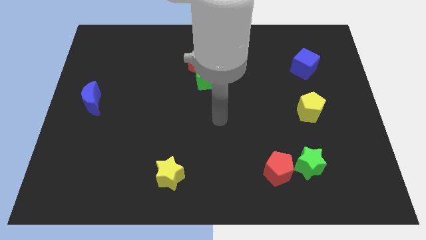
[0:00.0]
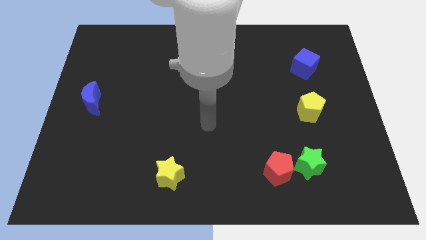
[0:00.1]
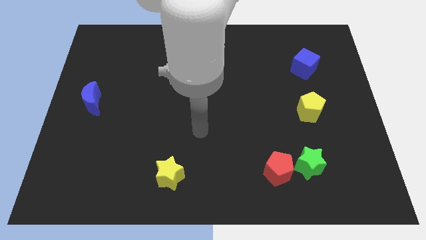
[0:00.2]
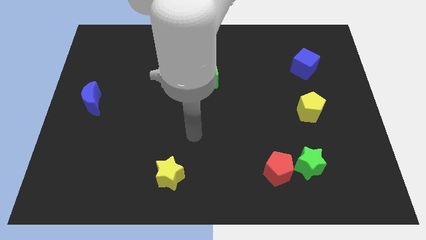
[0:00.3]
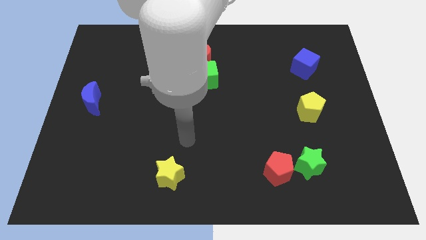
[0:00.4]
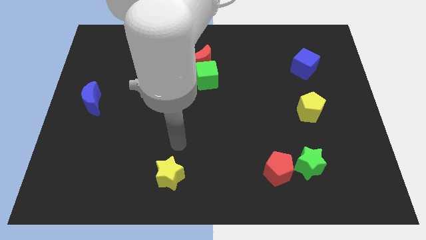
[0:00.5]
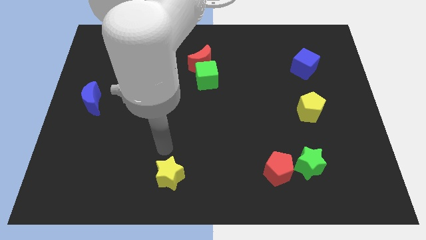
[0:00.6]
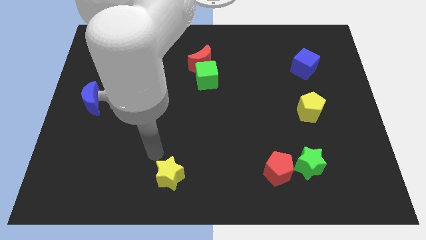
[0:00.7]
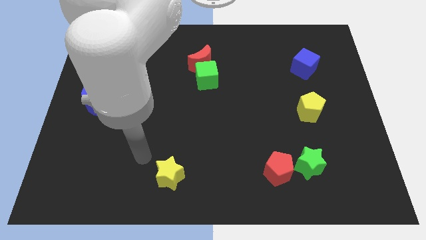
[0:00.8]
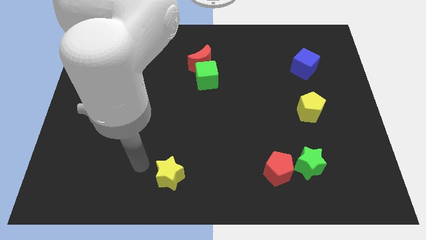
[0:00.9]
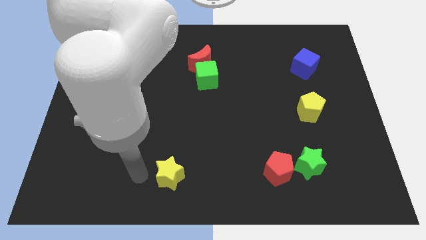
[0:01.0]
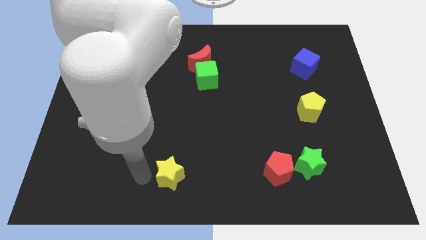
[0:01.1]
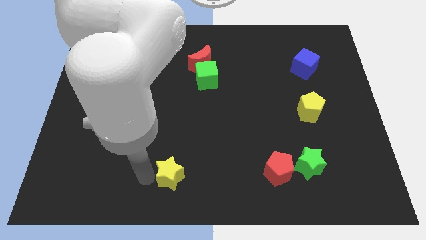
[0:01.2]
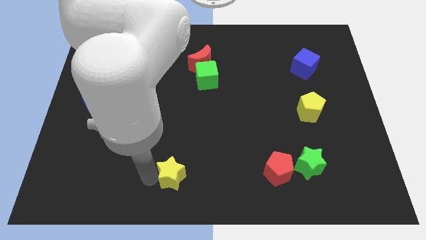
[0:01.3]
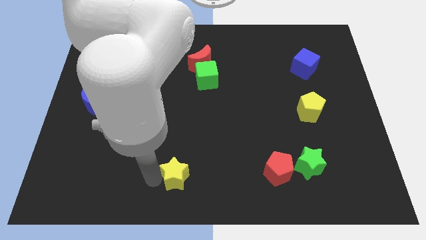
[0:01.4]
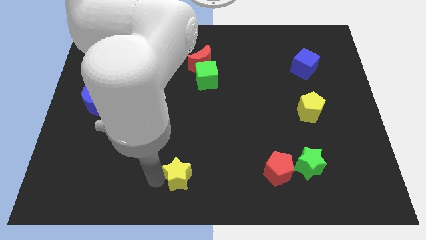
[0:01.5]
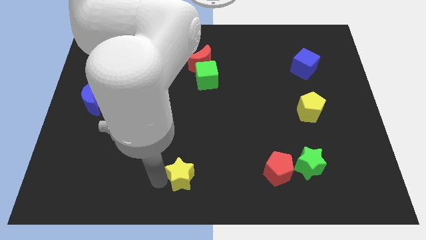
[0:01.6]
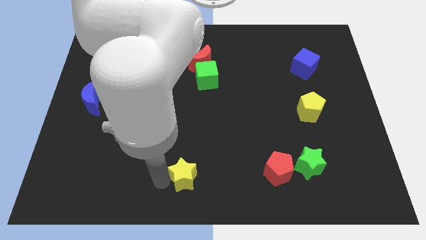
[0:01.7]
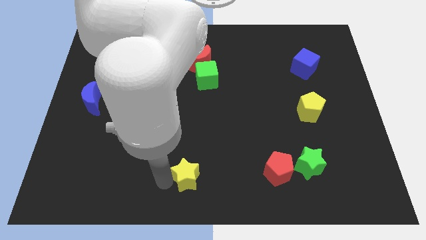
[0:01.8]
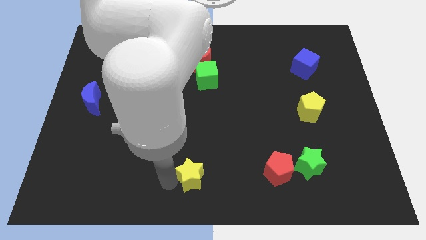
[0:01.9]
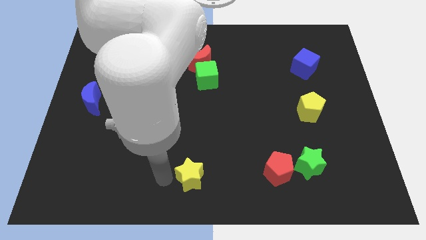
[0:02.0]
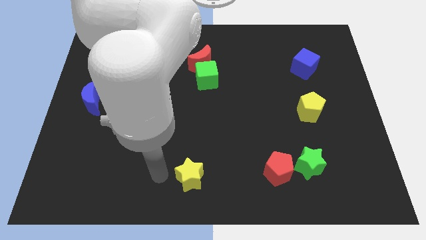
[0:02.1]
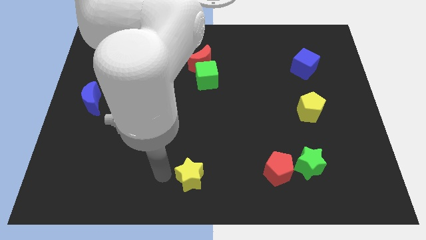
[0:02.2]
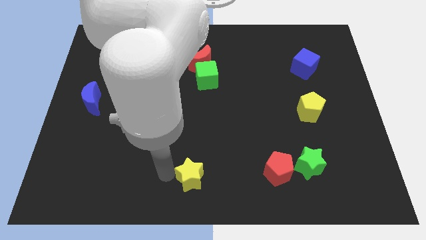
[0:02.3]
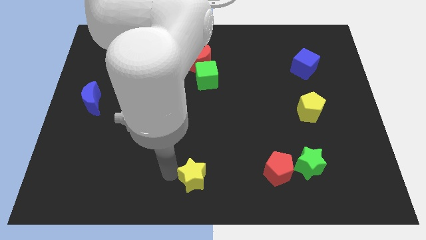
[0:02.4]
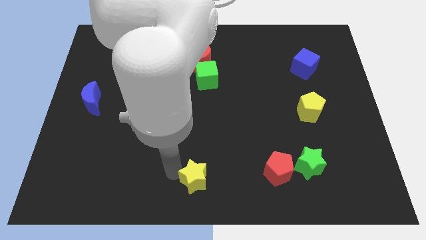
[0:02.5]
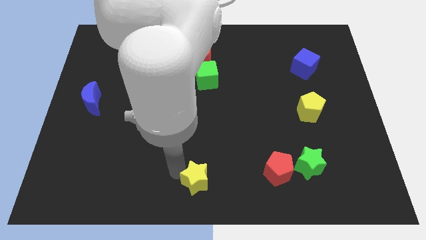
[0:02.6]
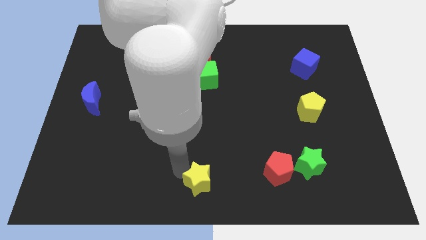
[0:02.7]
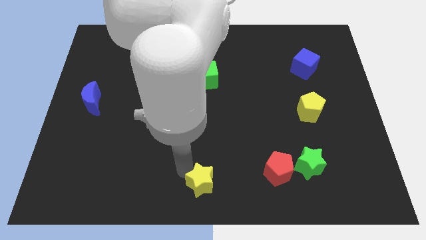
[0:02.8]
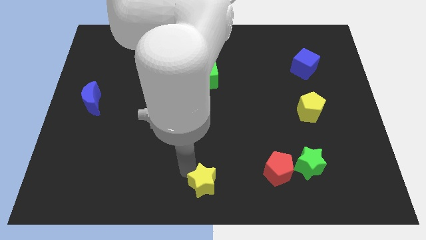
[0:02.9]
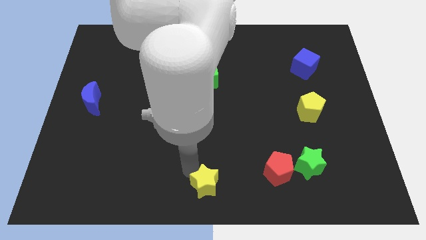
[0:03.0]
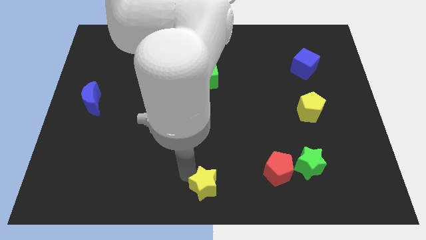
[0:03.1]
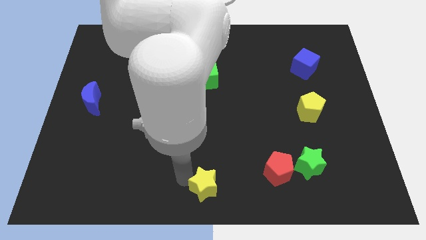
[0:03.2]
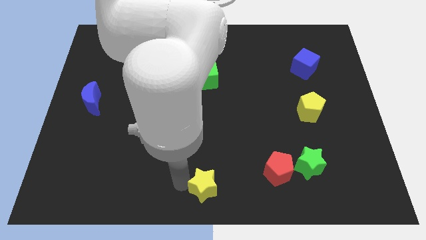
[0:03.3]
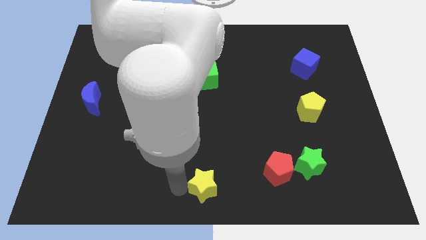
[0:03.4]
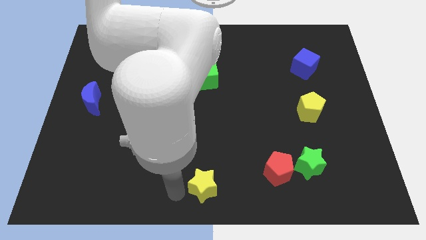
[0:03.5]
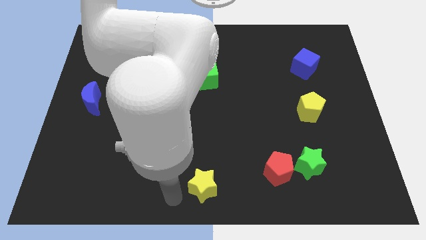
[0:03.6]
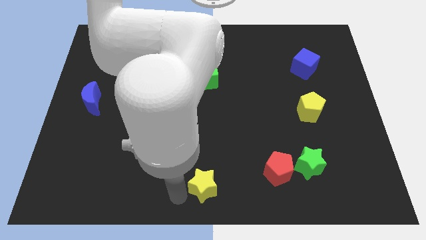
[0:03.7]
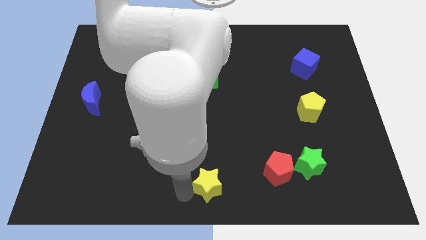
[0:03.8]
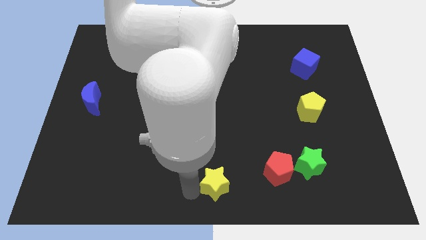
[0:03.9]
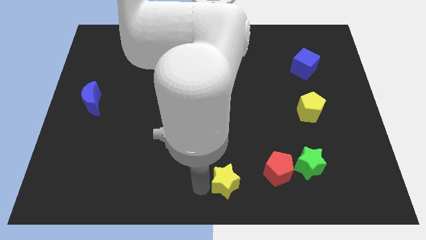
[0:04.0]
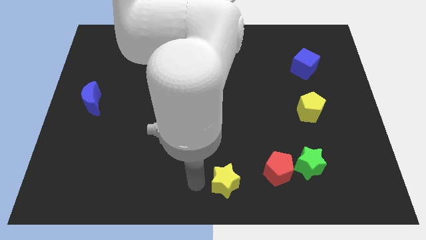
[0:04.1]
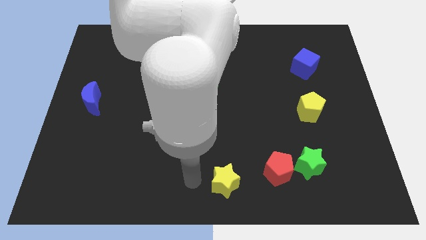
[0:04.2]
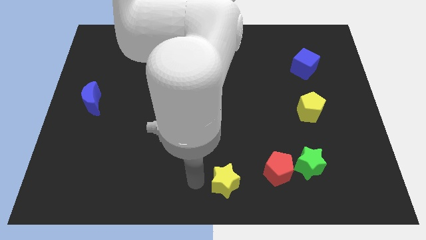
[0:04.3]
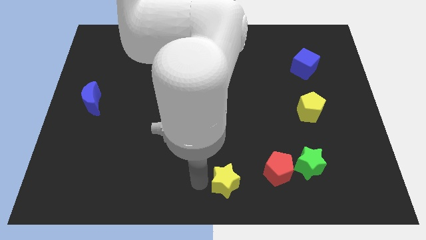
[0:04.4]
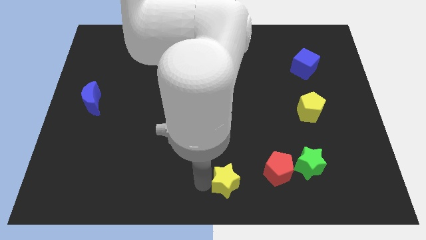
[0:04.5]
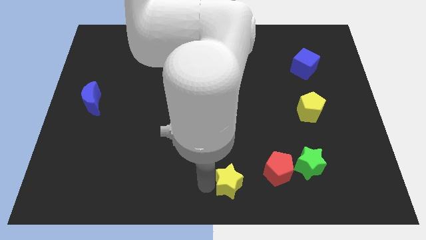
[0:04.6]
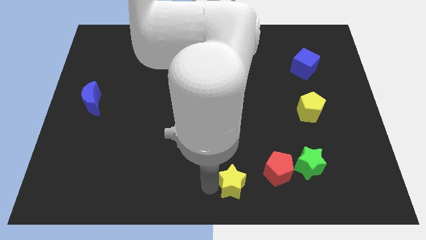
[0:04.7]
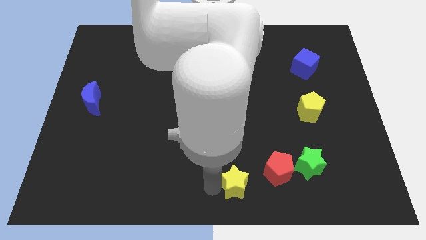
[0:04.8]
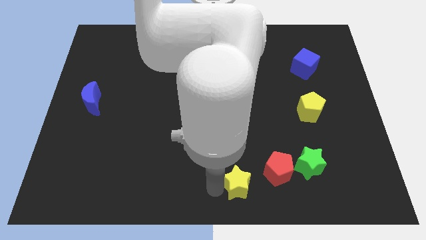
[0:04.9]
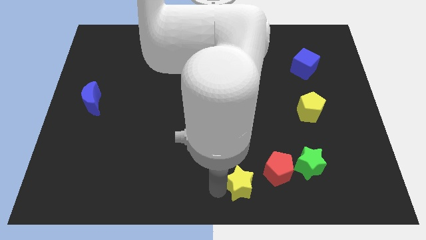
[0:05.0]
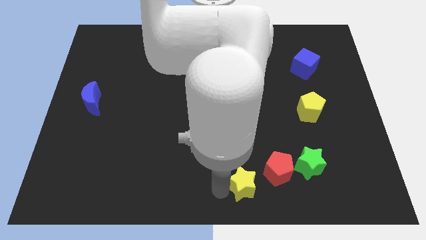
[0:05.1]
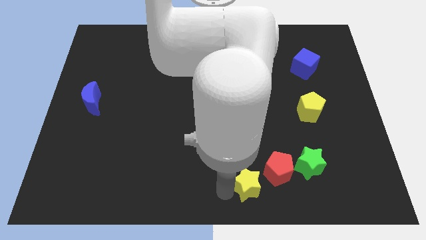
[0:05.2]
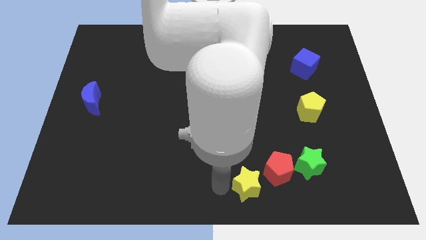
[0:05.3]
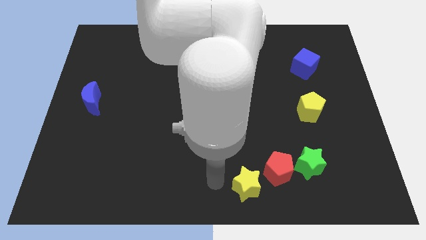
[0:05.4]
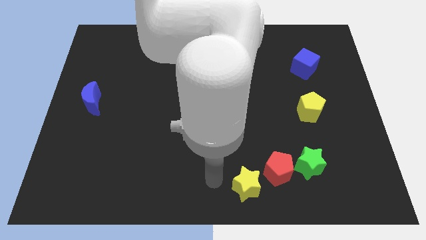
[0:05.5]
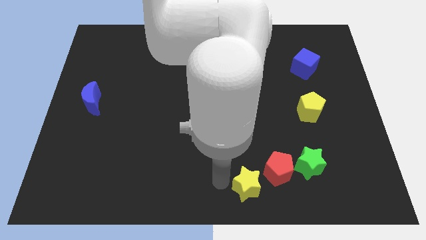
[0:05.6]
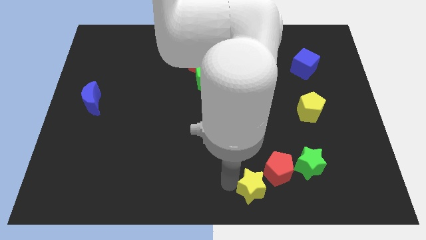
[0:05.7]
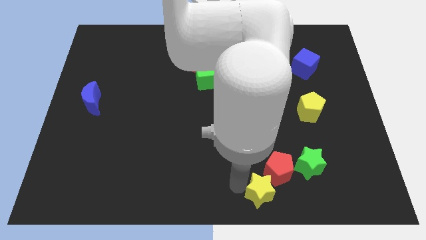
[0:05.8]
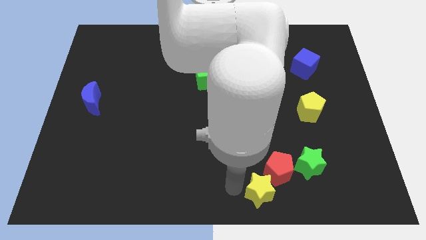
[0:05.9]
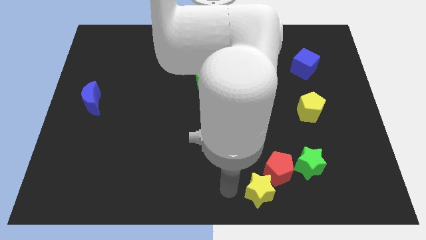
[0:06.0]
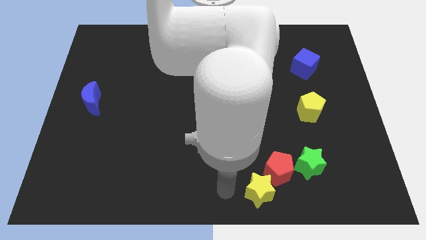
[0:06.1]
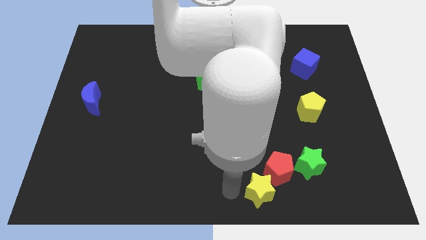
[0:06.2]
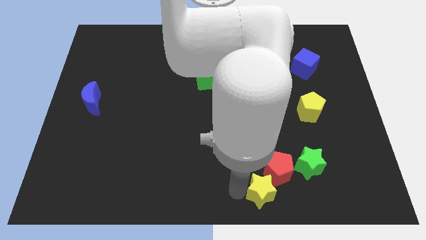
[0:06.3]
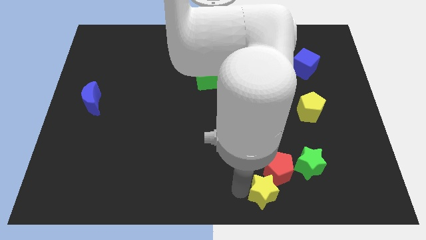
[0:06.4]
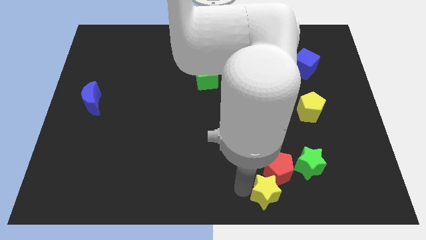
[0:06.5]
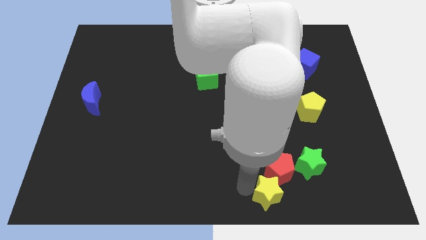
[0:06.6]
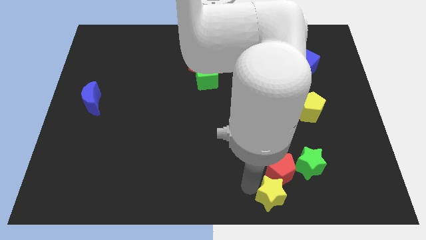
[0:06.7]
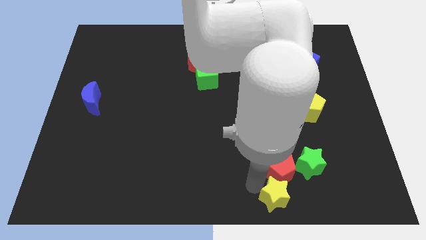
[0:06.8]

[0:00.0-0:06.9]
move the yellow star to the right

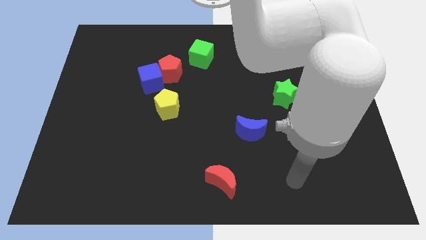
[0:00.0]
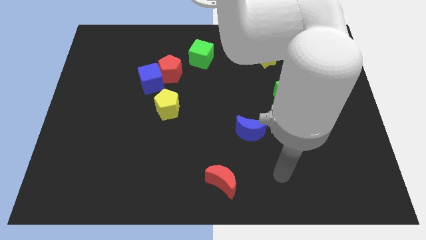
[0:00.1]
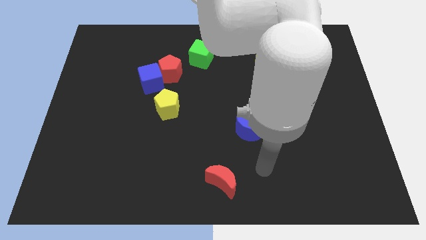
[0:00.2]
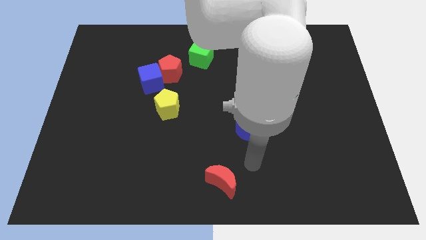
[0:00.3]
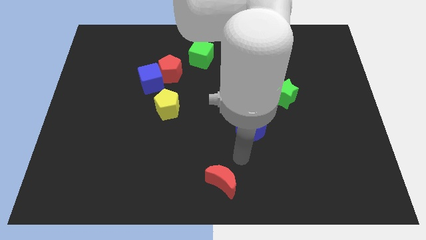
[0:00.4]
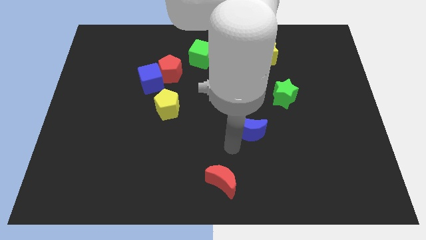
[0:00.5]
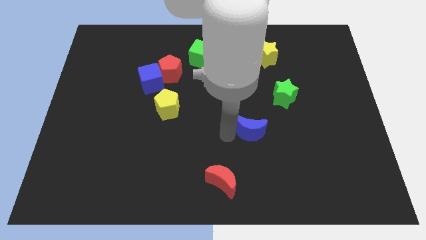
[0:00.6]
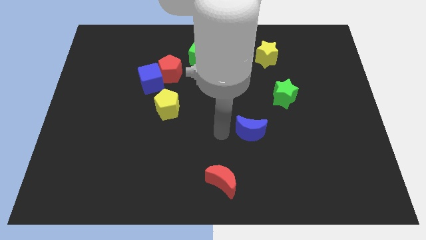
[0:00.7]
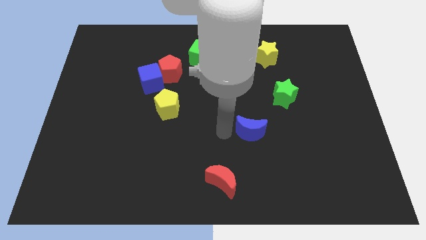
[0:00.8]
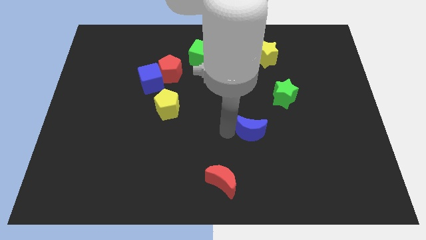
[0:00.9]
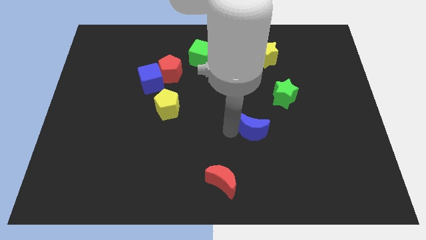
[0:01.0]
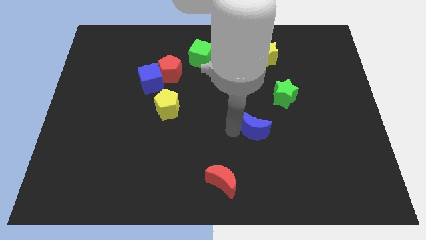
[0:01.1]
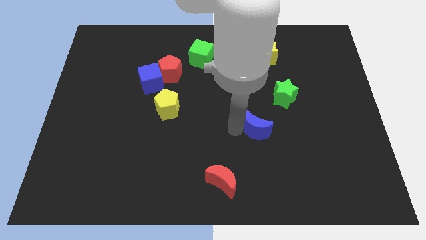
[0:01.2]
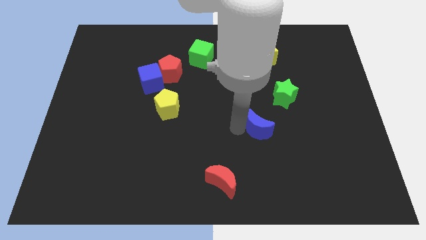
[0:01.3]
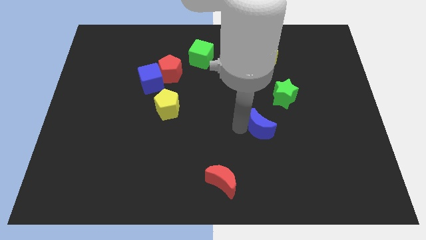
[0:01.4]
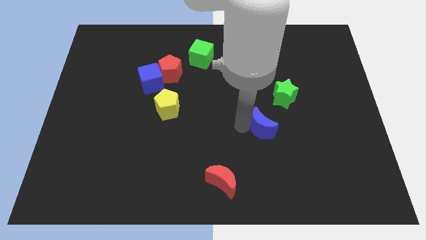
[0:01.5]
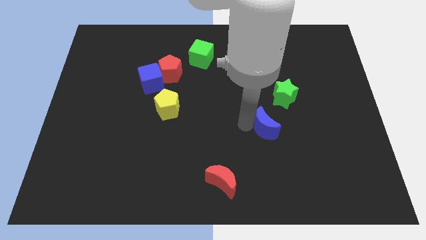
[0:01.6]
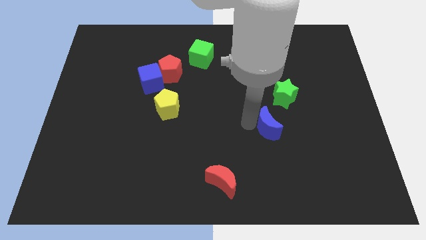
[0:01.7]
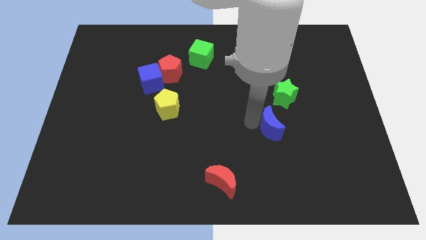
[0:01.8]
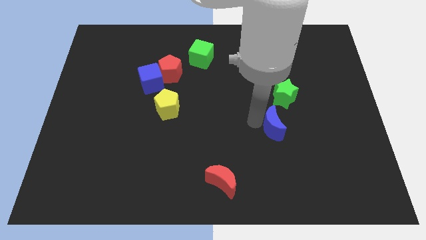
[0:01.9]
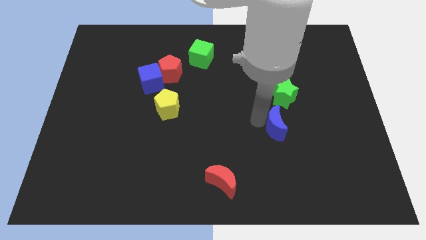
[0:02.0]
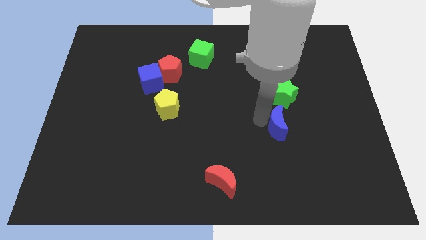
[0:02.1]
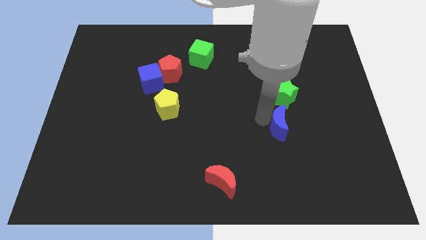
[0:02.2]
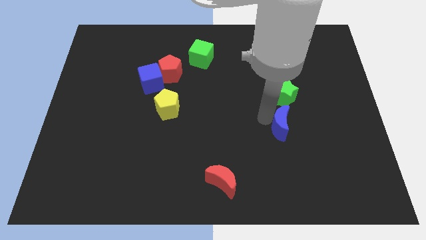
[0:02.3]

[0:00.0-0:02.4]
push the blue moon to the right a little
